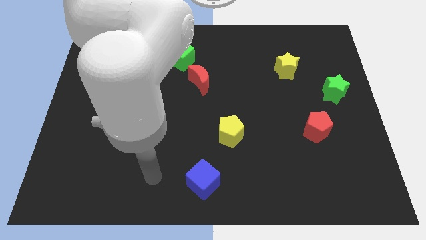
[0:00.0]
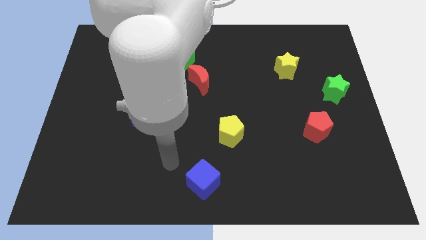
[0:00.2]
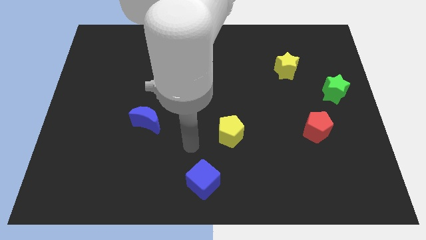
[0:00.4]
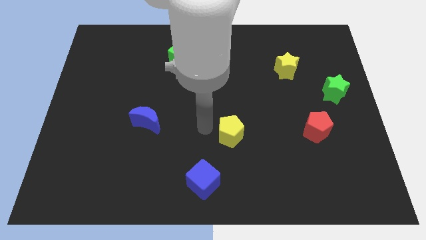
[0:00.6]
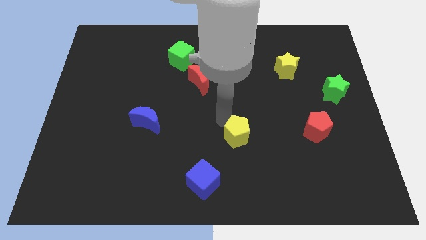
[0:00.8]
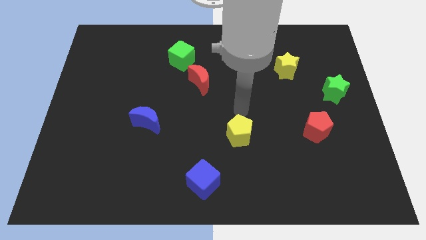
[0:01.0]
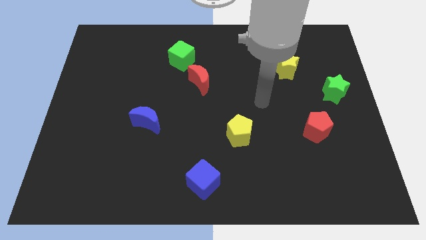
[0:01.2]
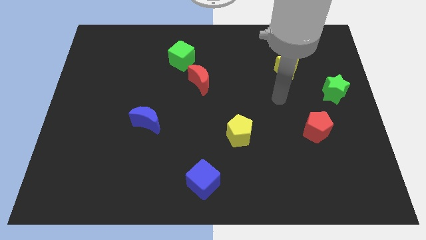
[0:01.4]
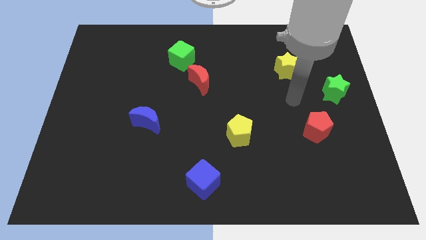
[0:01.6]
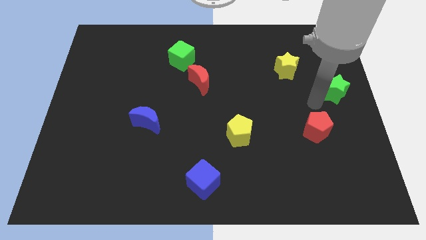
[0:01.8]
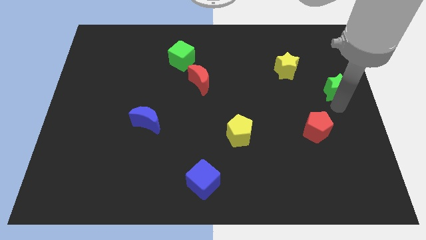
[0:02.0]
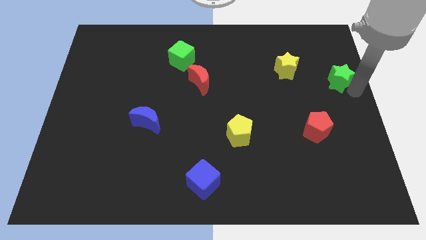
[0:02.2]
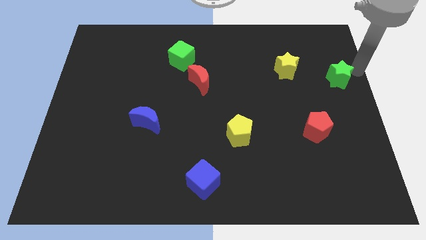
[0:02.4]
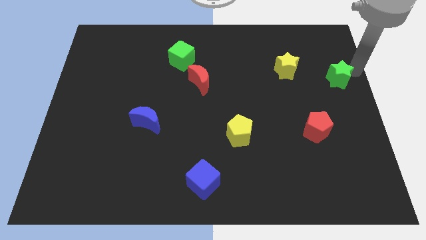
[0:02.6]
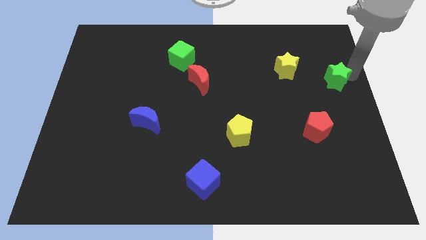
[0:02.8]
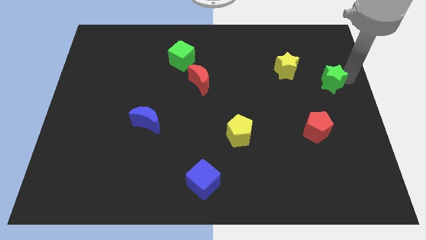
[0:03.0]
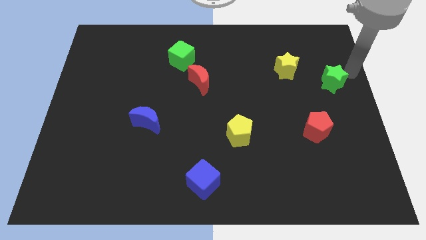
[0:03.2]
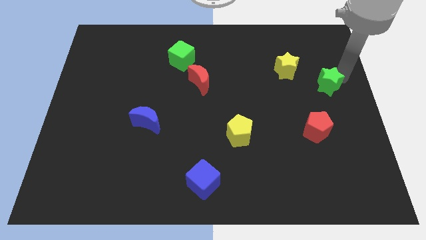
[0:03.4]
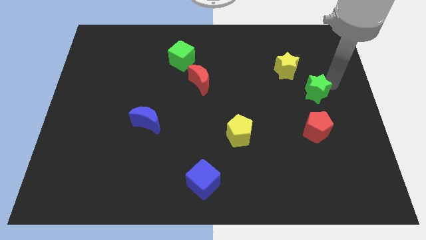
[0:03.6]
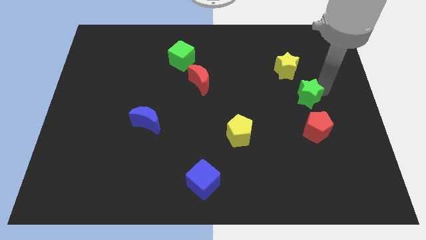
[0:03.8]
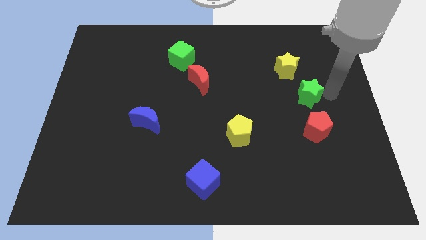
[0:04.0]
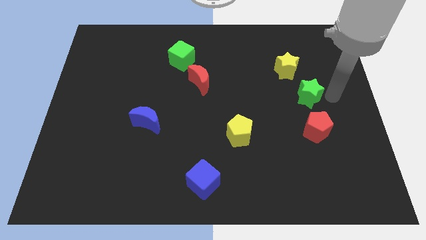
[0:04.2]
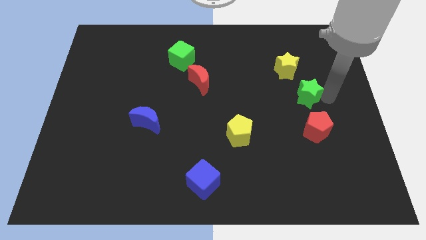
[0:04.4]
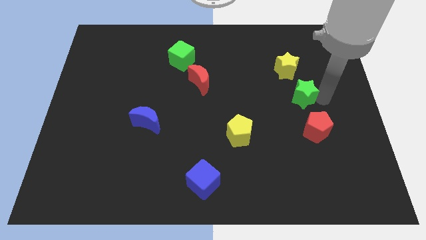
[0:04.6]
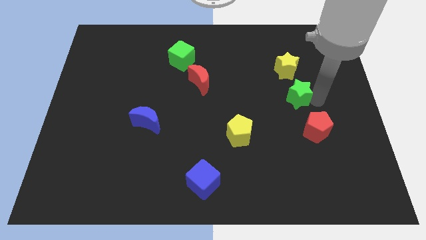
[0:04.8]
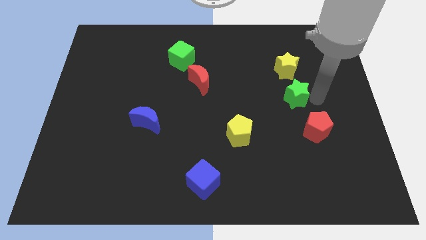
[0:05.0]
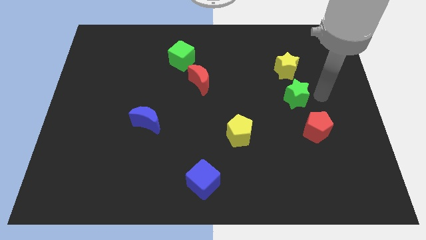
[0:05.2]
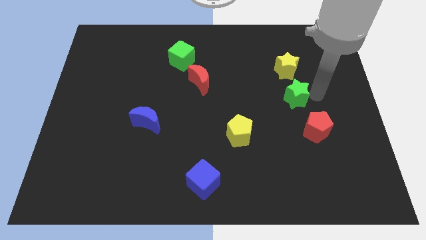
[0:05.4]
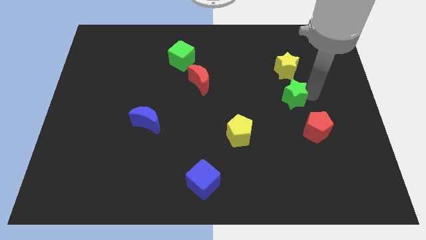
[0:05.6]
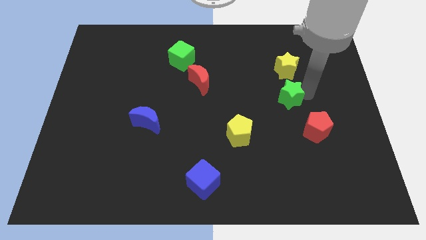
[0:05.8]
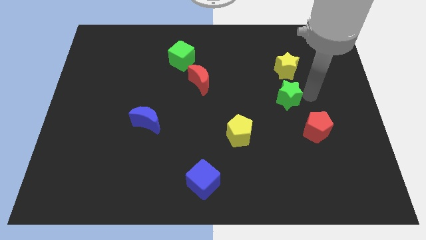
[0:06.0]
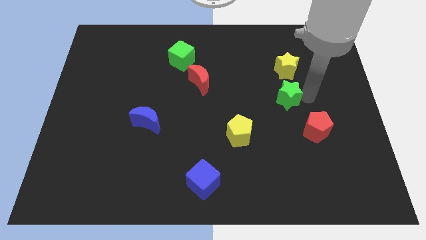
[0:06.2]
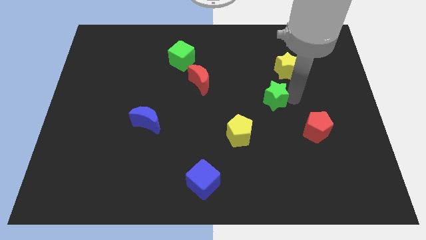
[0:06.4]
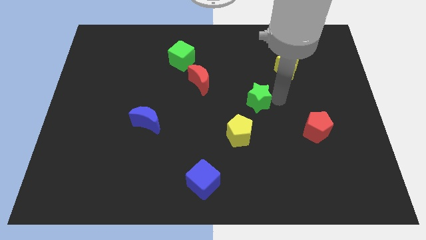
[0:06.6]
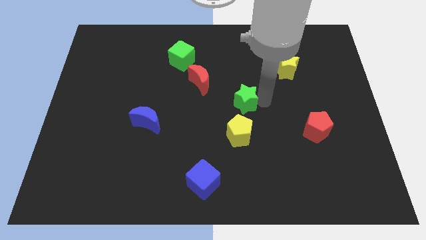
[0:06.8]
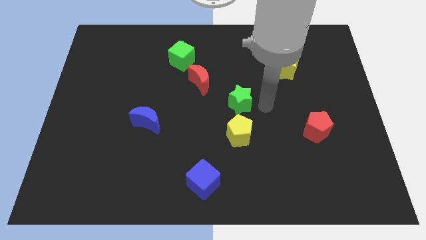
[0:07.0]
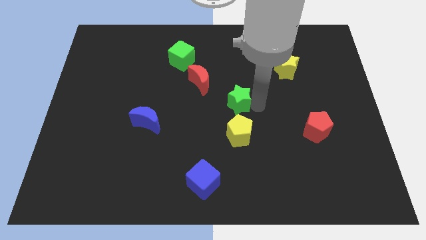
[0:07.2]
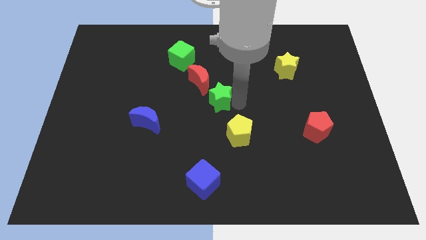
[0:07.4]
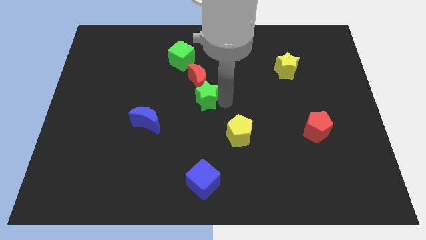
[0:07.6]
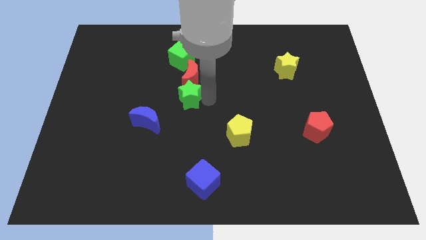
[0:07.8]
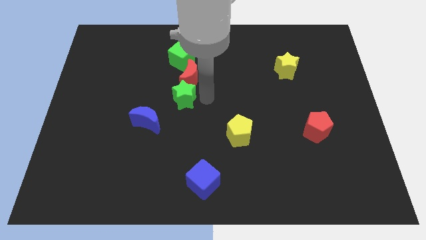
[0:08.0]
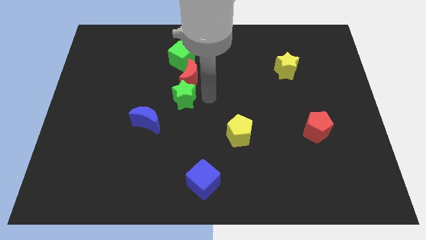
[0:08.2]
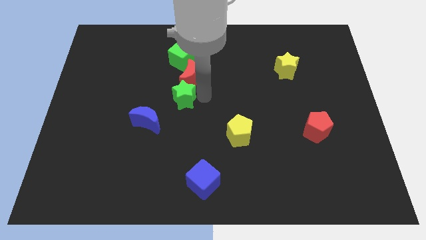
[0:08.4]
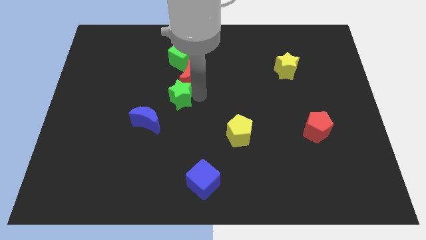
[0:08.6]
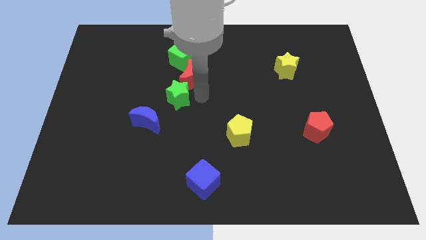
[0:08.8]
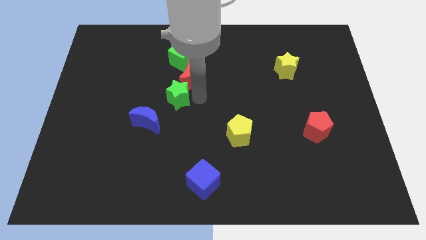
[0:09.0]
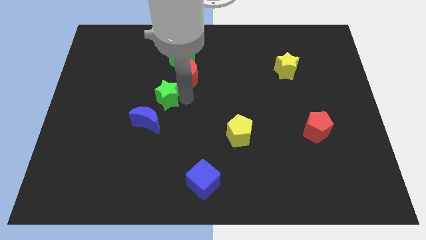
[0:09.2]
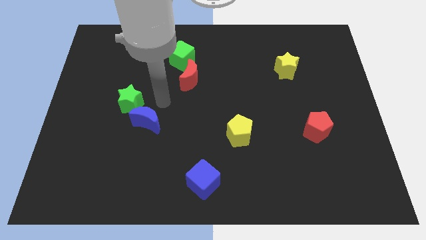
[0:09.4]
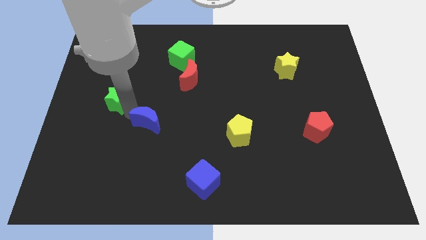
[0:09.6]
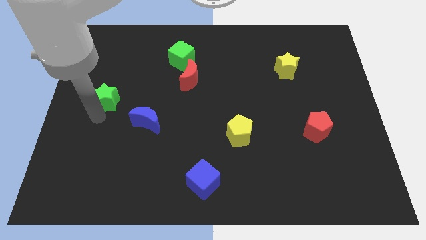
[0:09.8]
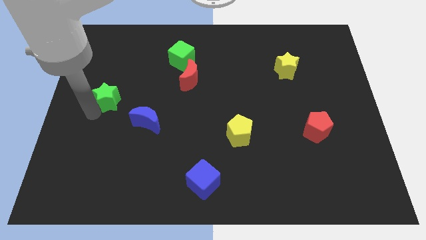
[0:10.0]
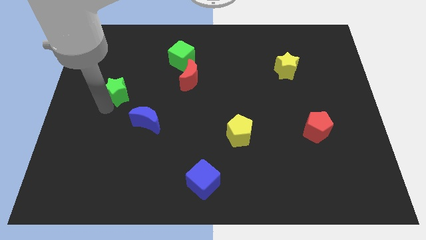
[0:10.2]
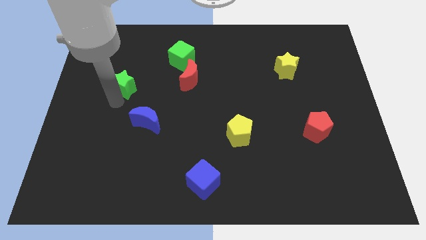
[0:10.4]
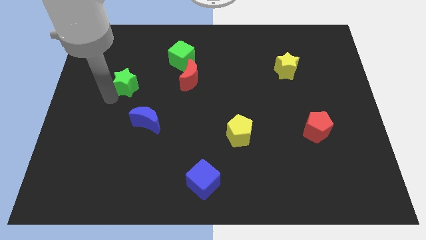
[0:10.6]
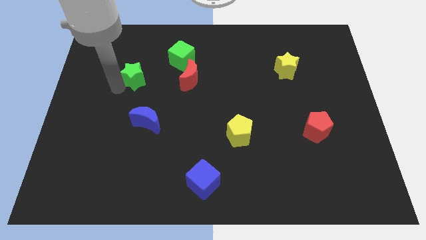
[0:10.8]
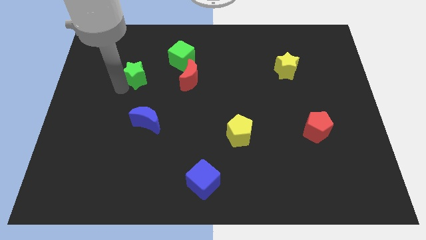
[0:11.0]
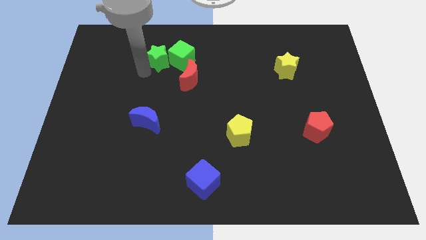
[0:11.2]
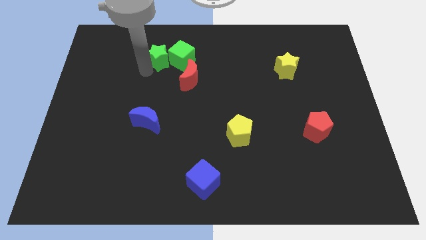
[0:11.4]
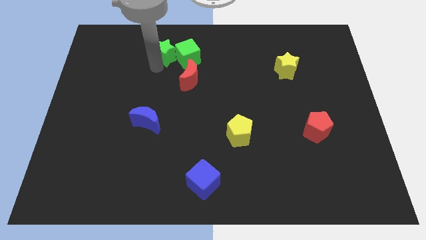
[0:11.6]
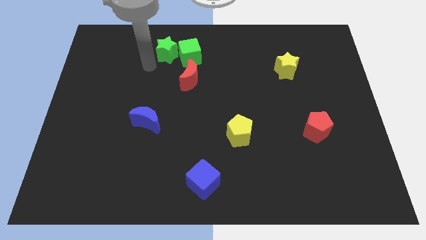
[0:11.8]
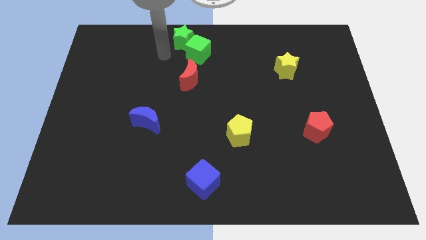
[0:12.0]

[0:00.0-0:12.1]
put the green star to the top
